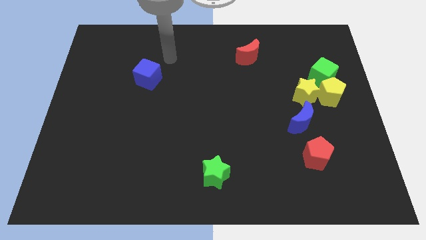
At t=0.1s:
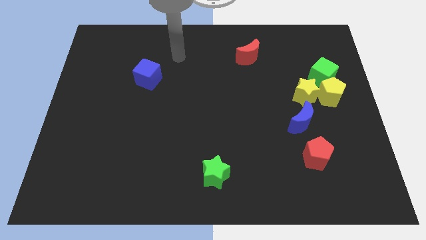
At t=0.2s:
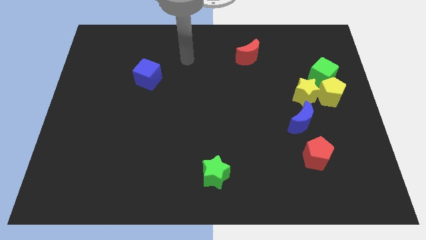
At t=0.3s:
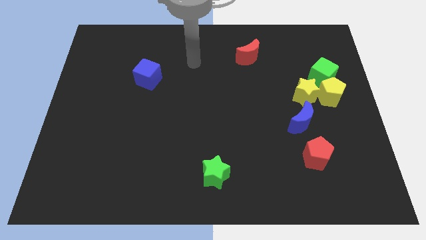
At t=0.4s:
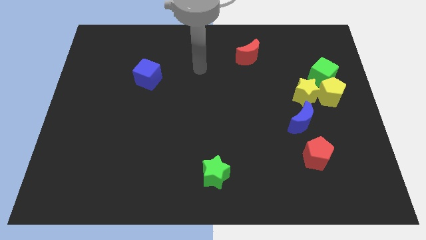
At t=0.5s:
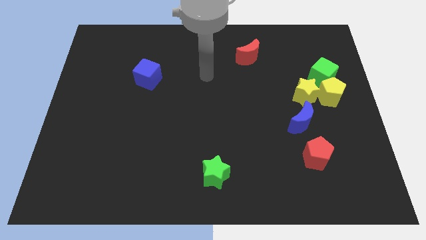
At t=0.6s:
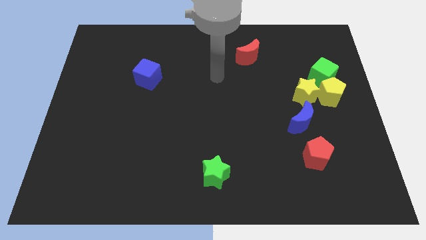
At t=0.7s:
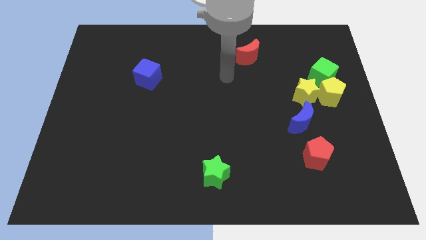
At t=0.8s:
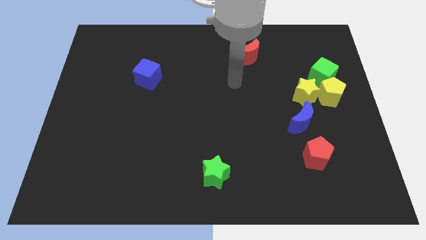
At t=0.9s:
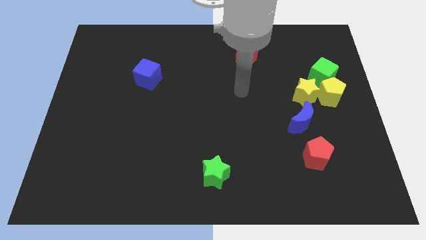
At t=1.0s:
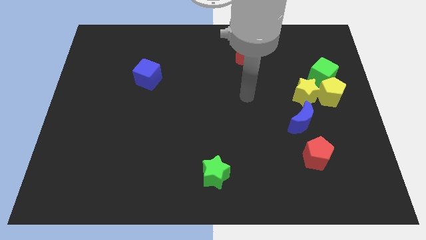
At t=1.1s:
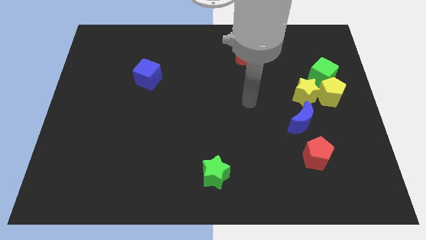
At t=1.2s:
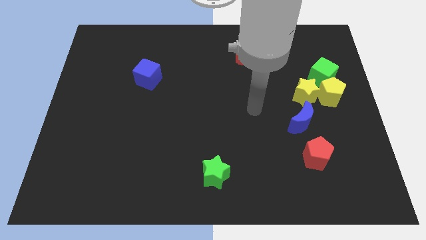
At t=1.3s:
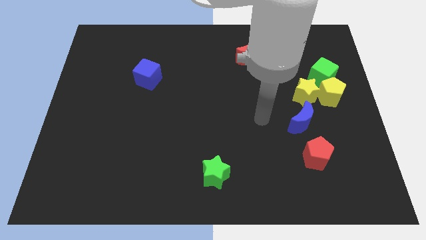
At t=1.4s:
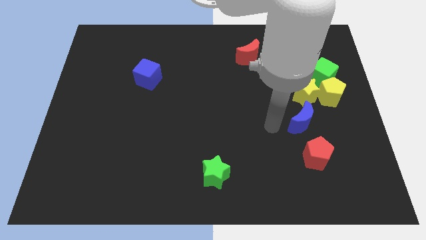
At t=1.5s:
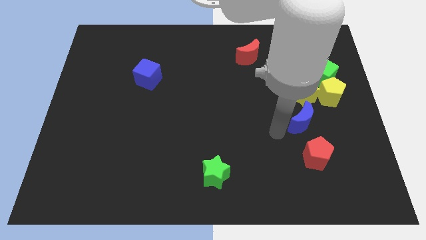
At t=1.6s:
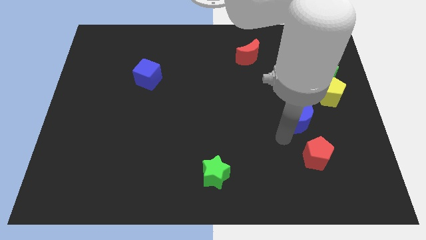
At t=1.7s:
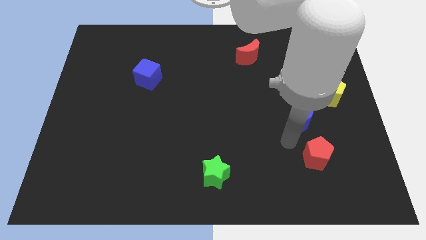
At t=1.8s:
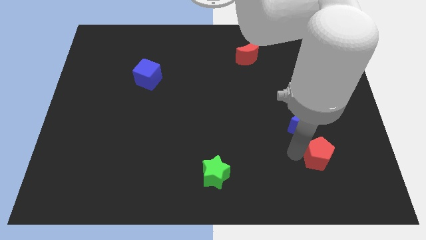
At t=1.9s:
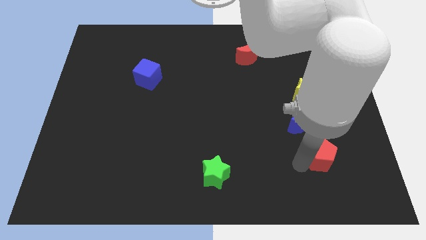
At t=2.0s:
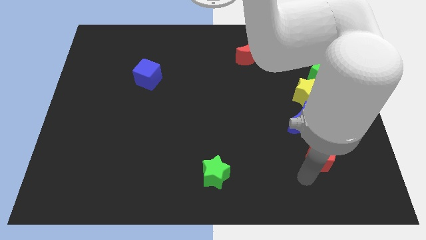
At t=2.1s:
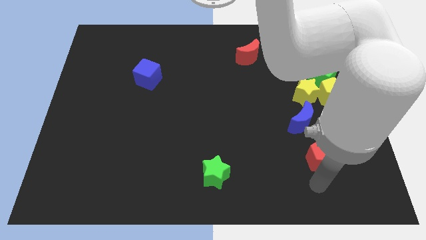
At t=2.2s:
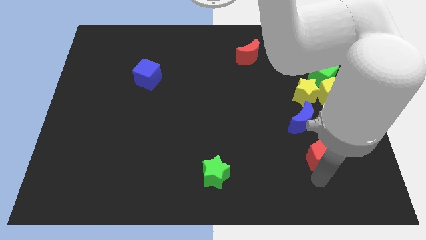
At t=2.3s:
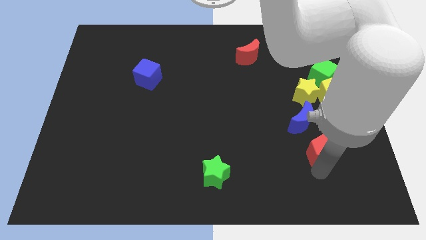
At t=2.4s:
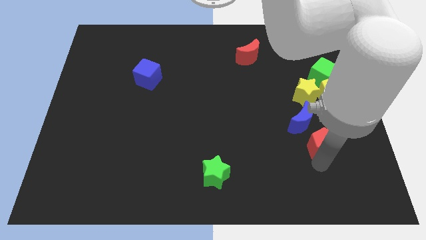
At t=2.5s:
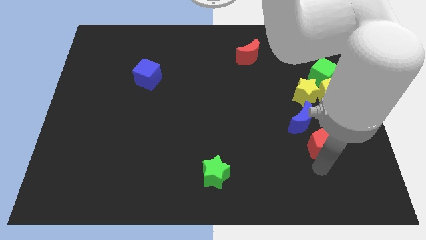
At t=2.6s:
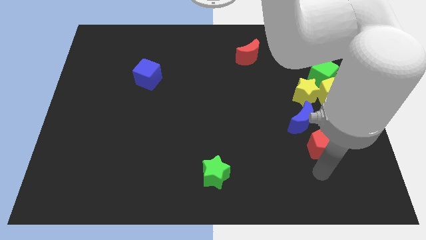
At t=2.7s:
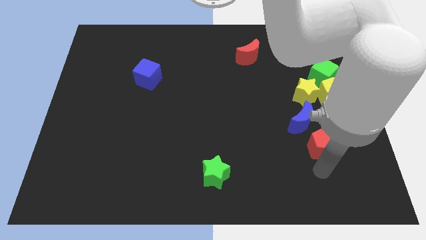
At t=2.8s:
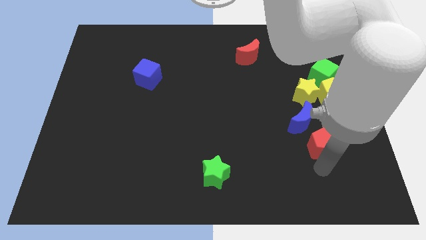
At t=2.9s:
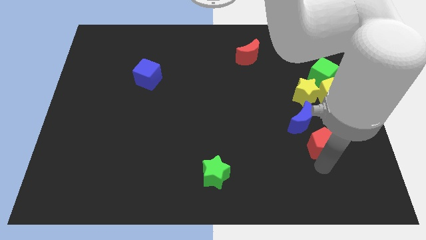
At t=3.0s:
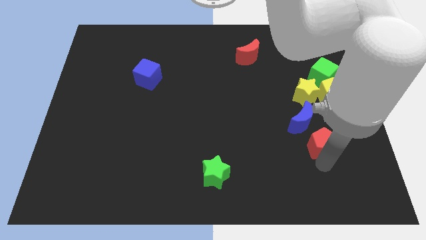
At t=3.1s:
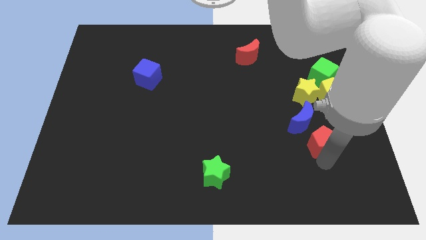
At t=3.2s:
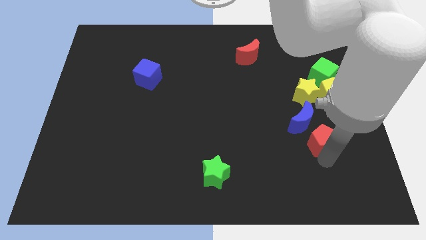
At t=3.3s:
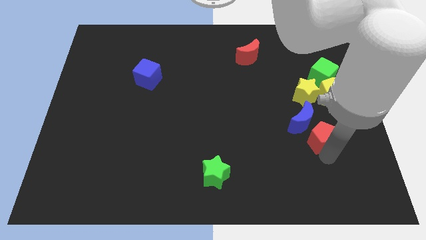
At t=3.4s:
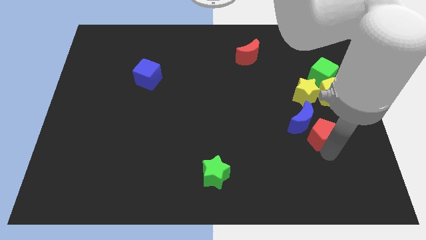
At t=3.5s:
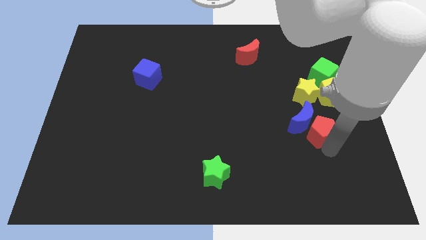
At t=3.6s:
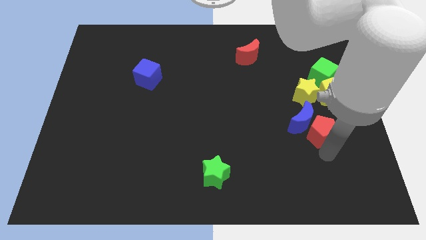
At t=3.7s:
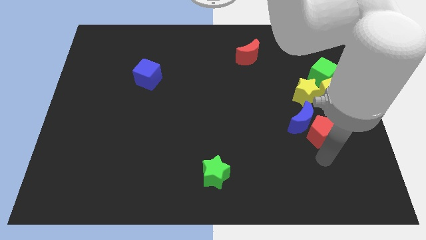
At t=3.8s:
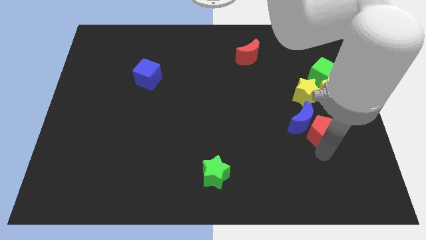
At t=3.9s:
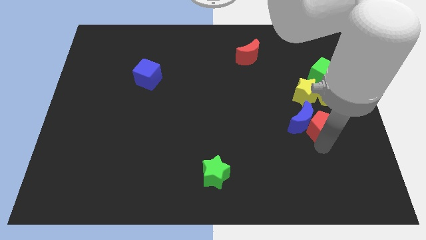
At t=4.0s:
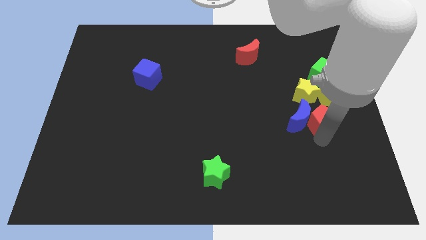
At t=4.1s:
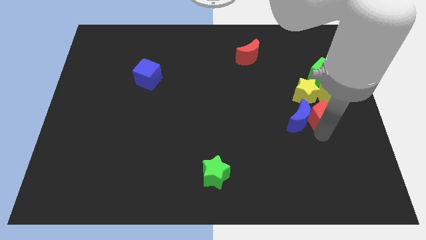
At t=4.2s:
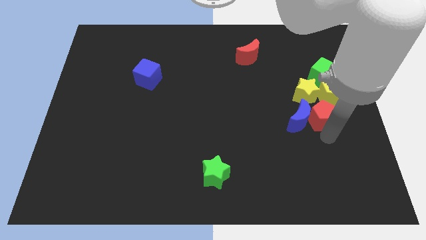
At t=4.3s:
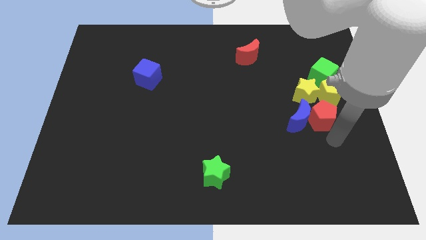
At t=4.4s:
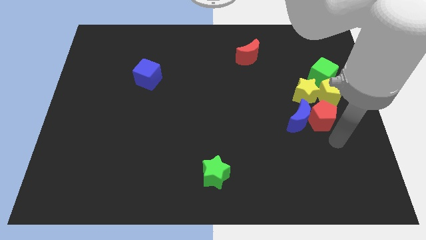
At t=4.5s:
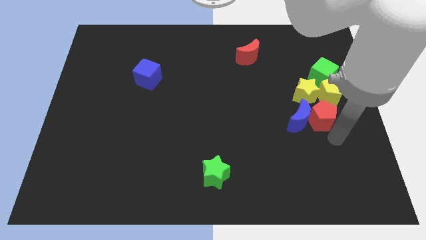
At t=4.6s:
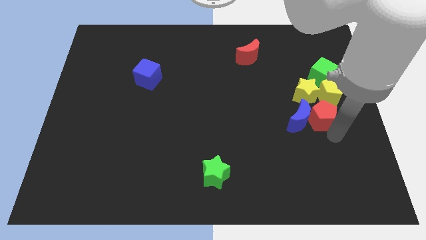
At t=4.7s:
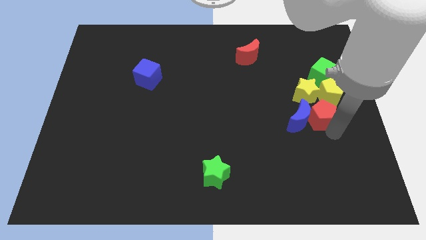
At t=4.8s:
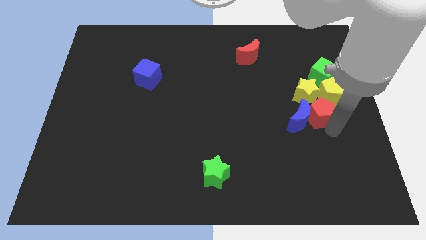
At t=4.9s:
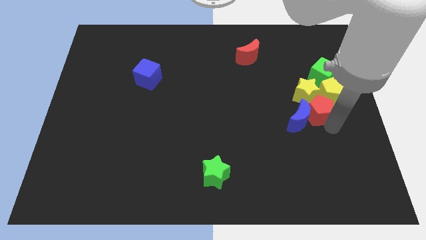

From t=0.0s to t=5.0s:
put the red pentagon close to the yellow star

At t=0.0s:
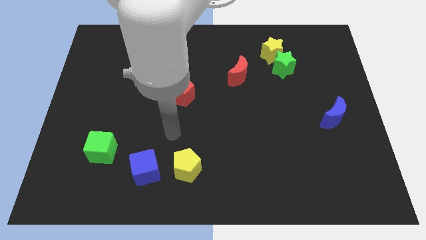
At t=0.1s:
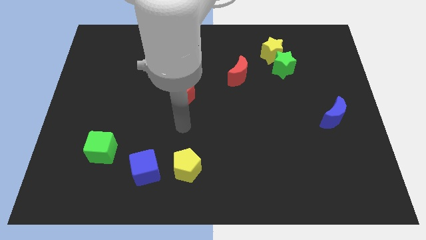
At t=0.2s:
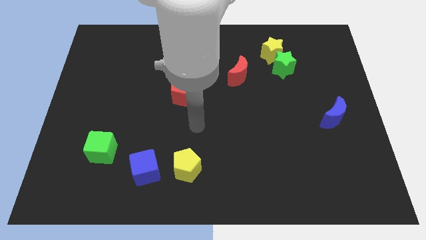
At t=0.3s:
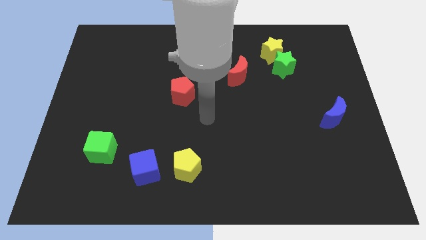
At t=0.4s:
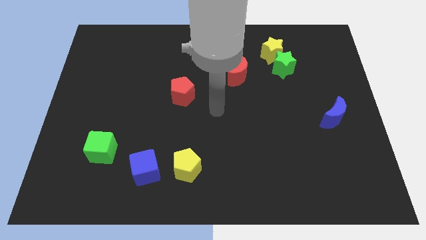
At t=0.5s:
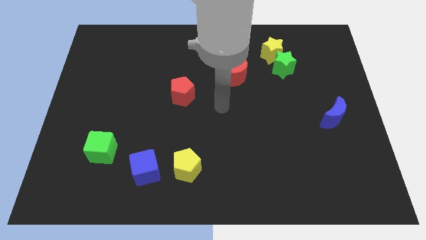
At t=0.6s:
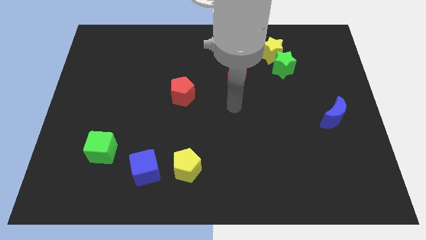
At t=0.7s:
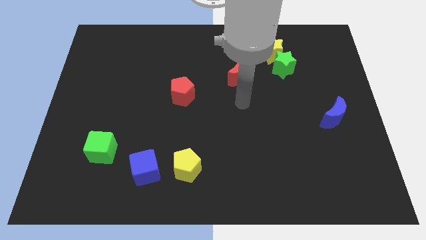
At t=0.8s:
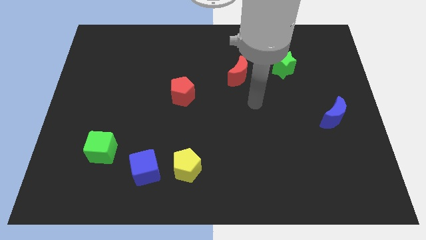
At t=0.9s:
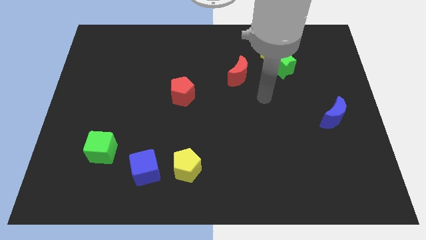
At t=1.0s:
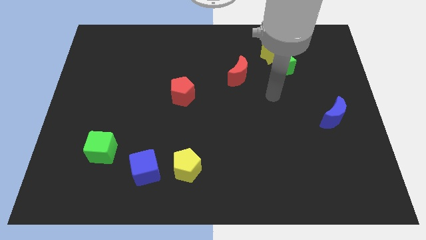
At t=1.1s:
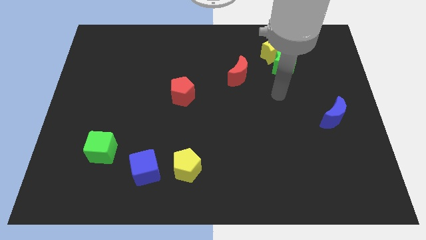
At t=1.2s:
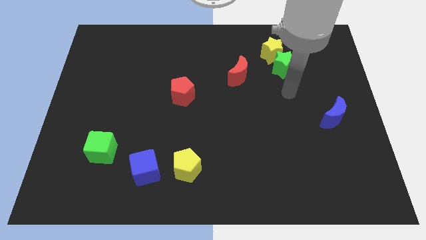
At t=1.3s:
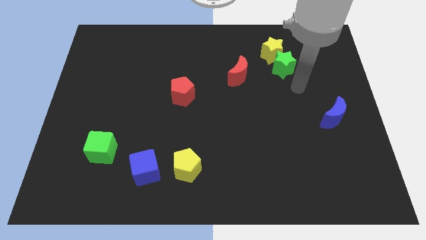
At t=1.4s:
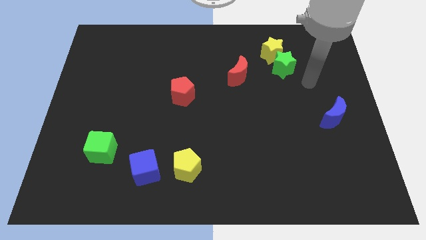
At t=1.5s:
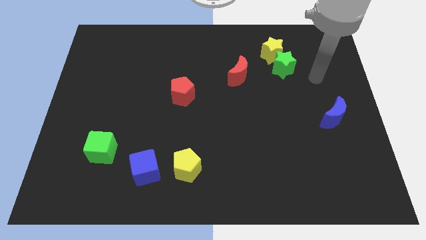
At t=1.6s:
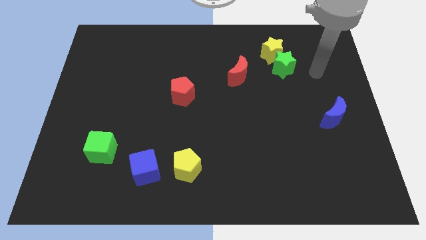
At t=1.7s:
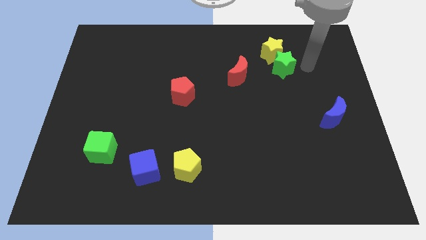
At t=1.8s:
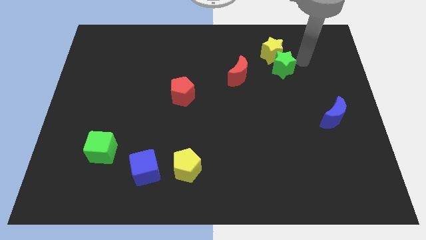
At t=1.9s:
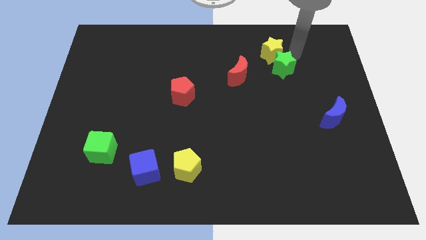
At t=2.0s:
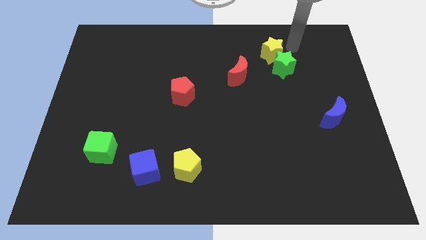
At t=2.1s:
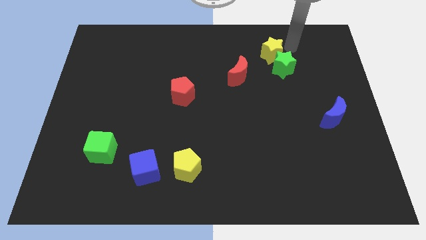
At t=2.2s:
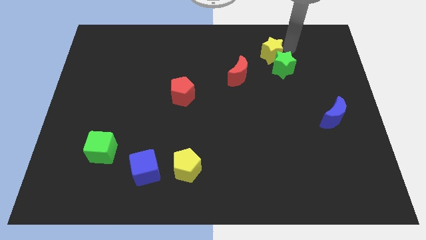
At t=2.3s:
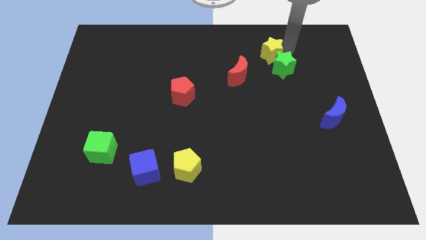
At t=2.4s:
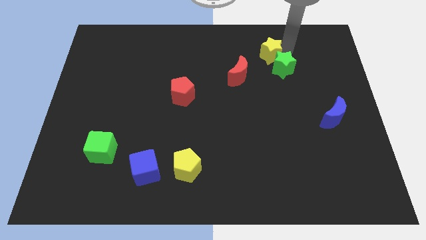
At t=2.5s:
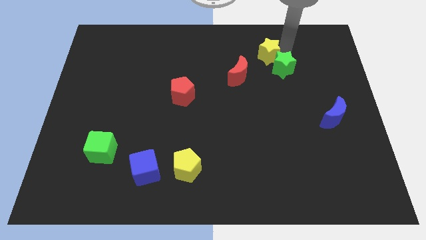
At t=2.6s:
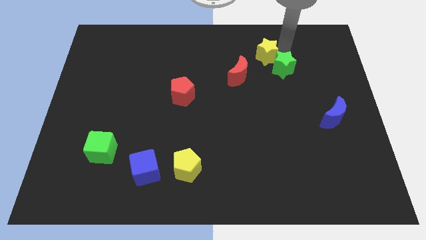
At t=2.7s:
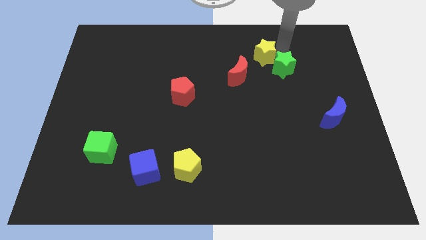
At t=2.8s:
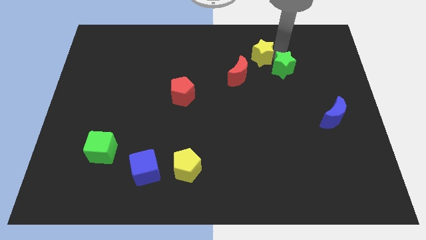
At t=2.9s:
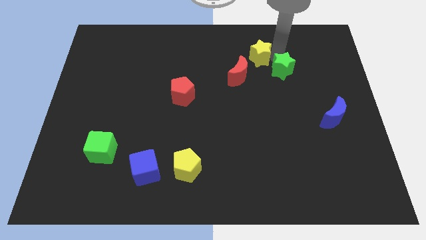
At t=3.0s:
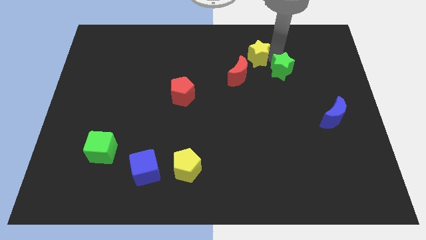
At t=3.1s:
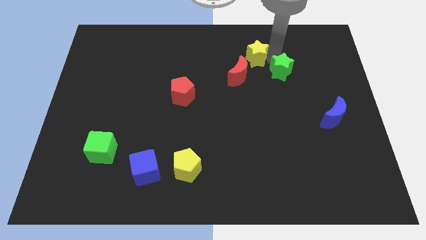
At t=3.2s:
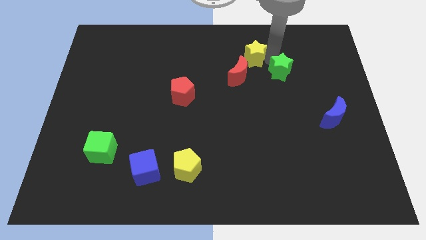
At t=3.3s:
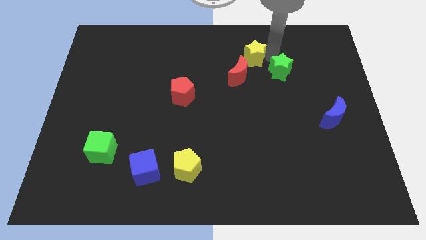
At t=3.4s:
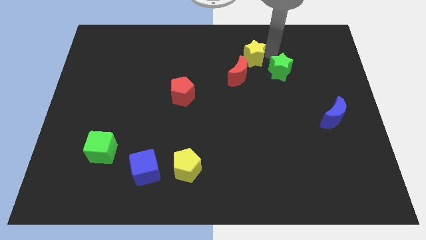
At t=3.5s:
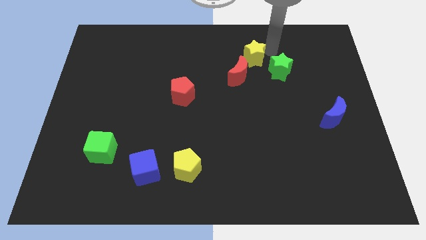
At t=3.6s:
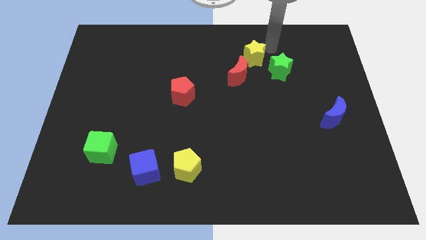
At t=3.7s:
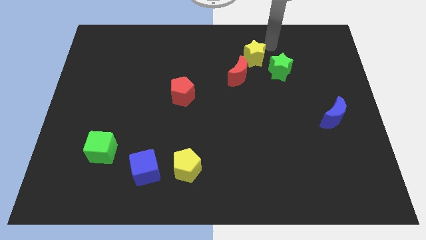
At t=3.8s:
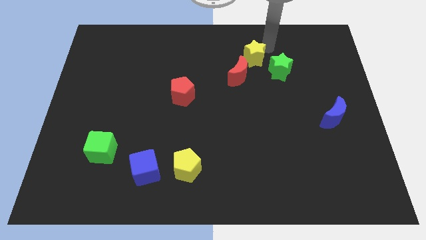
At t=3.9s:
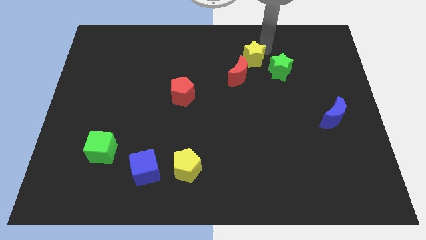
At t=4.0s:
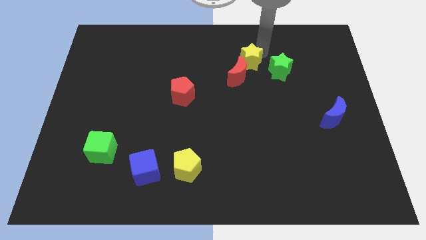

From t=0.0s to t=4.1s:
push the yellow star to the red moon
